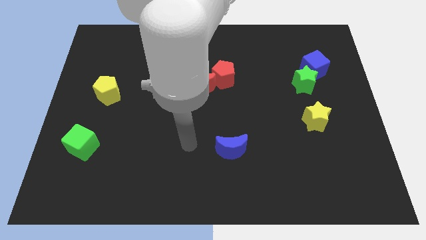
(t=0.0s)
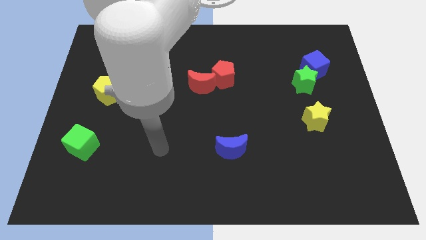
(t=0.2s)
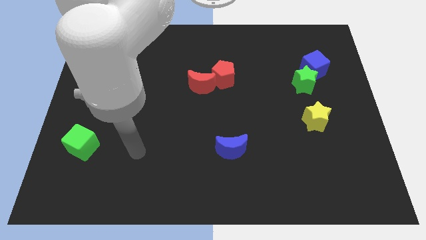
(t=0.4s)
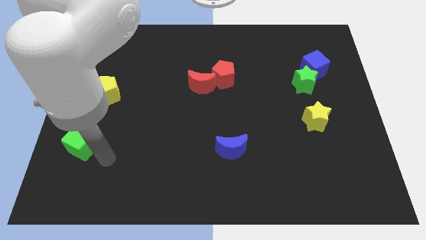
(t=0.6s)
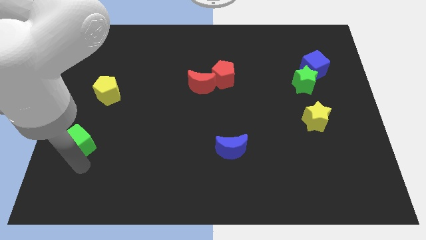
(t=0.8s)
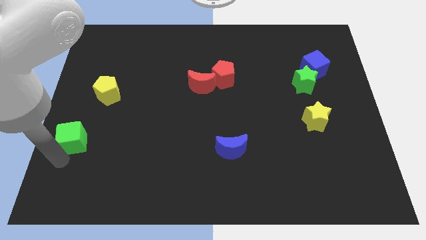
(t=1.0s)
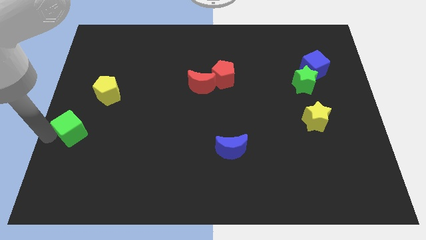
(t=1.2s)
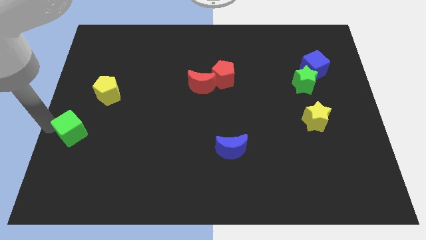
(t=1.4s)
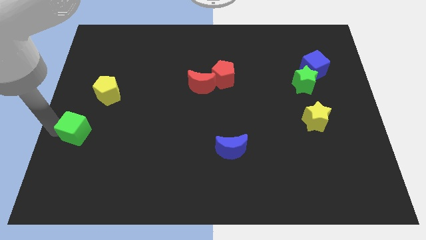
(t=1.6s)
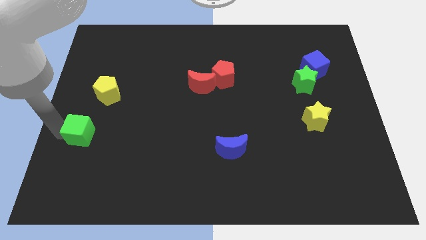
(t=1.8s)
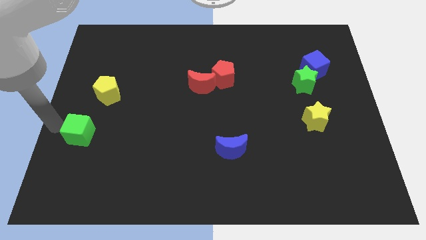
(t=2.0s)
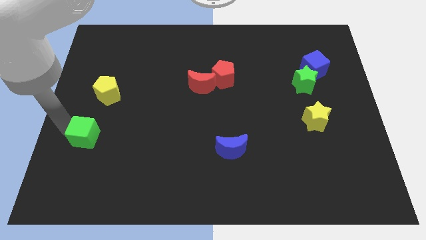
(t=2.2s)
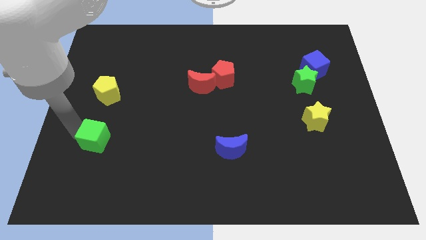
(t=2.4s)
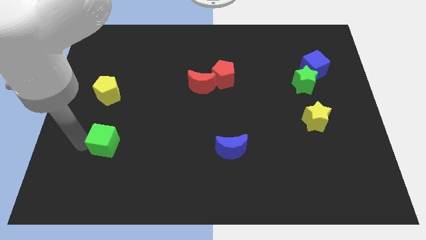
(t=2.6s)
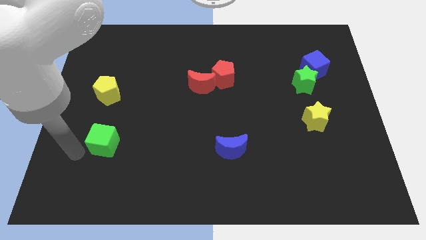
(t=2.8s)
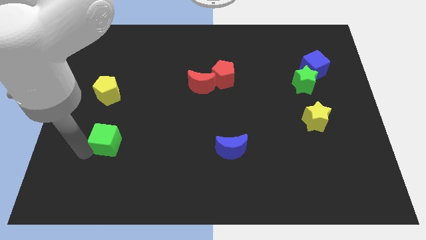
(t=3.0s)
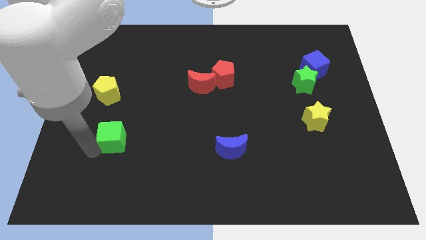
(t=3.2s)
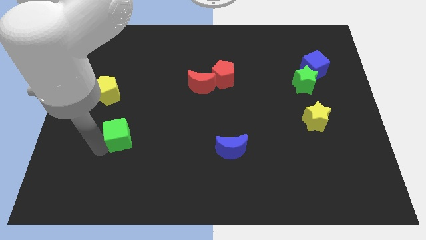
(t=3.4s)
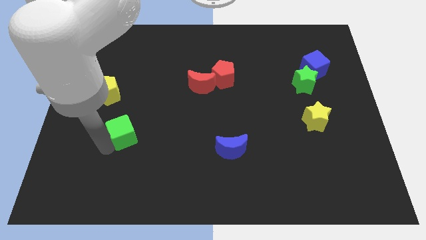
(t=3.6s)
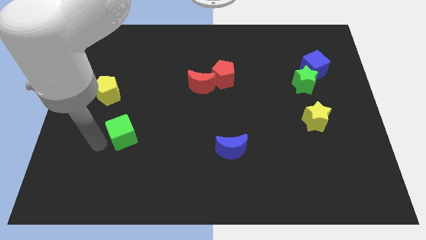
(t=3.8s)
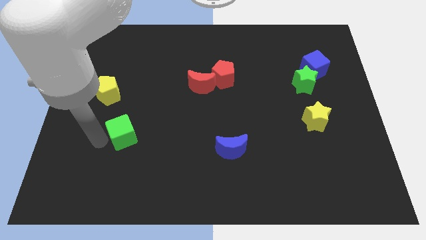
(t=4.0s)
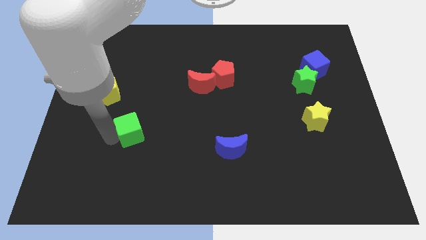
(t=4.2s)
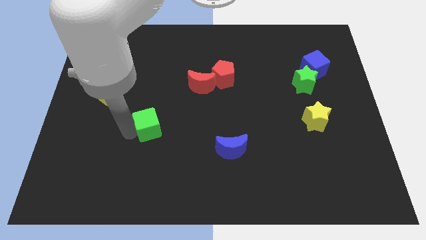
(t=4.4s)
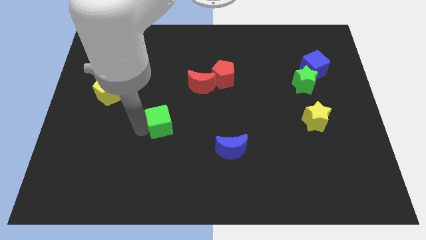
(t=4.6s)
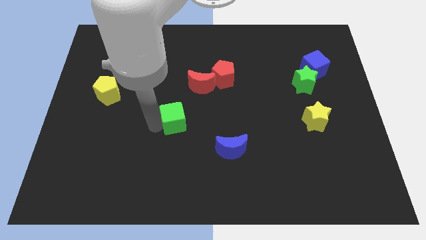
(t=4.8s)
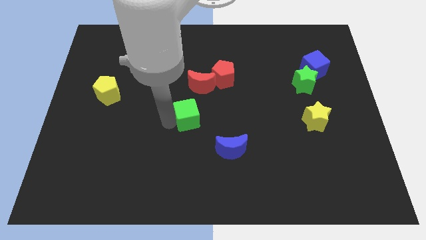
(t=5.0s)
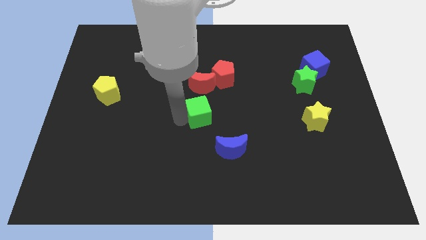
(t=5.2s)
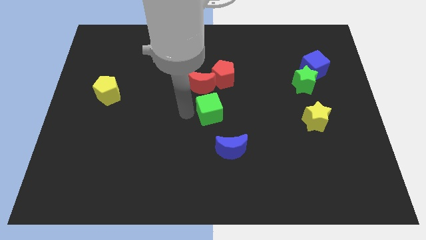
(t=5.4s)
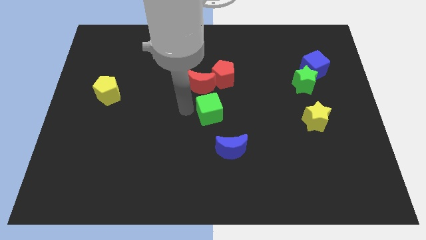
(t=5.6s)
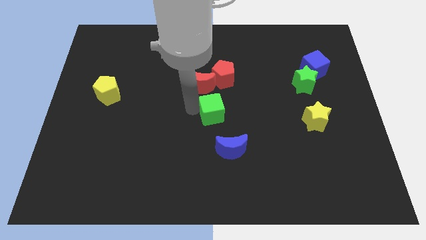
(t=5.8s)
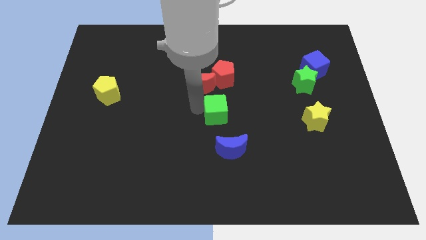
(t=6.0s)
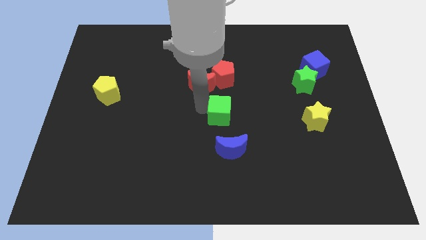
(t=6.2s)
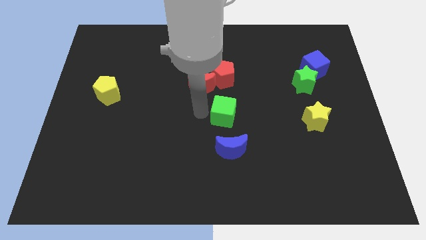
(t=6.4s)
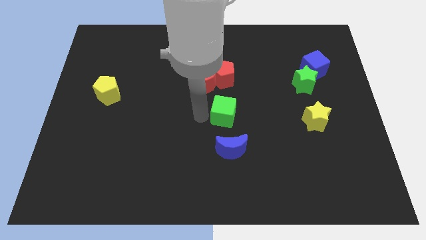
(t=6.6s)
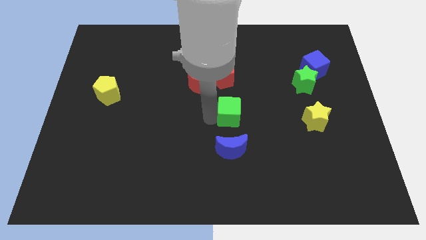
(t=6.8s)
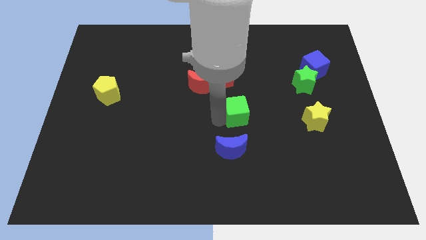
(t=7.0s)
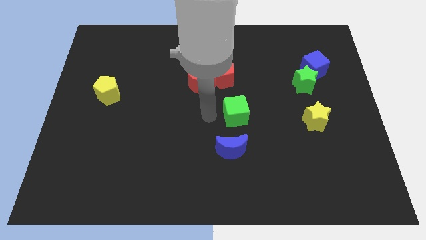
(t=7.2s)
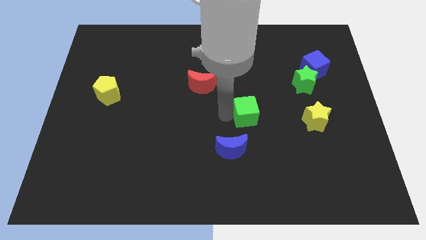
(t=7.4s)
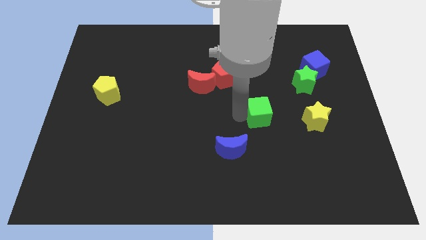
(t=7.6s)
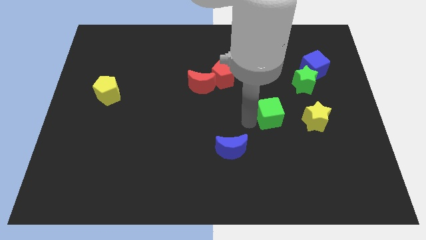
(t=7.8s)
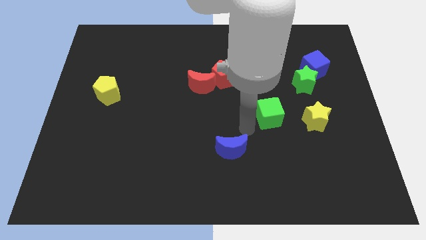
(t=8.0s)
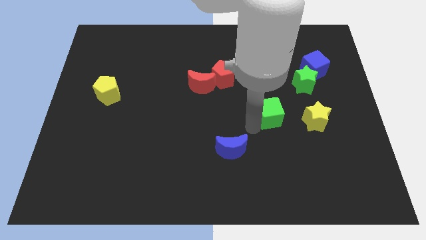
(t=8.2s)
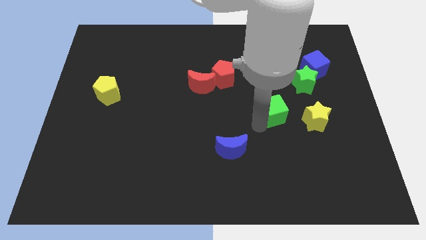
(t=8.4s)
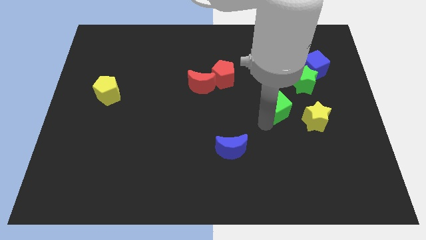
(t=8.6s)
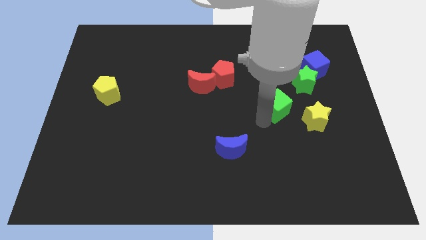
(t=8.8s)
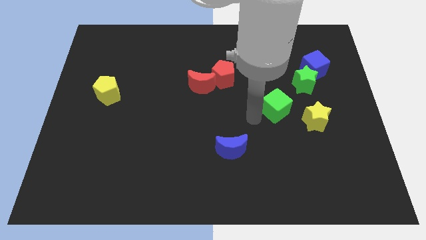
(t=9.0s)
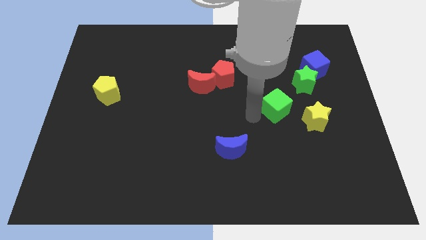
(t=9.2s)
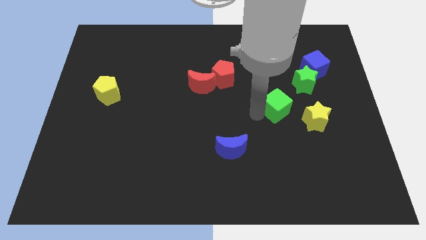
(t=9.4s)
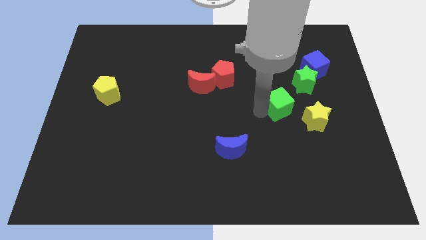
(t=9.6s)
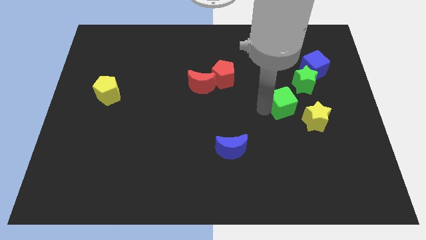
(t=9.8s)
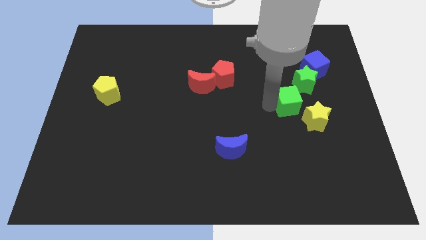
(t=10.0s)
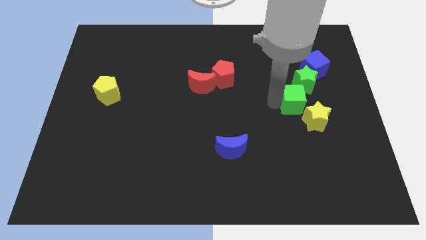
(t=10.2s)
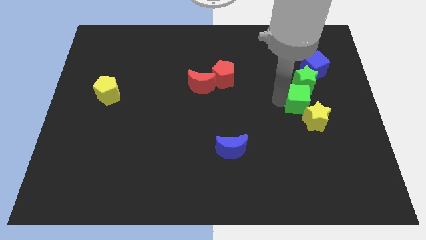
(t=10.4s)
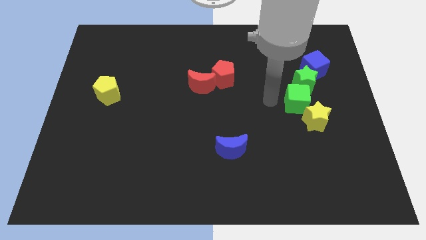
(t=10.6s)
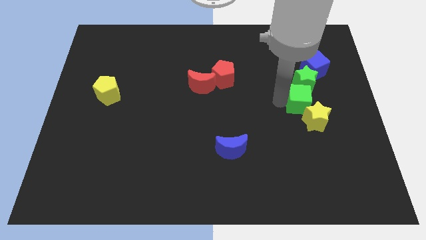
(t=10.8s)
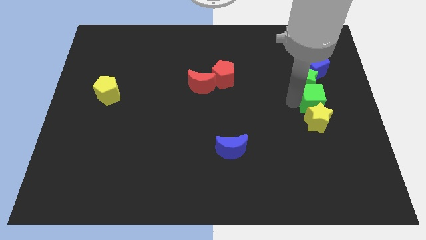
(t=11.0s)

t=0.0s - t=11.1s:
push the green cube diagonally up and to the right of the yellow star

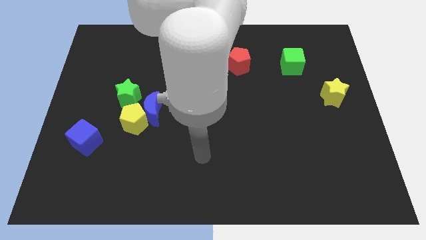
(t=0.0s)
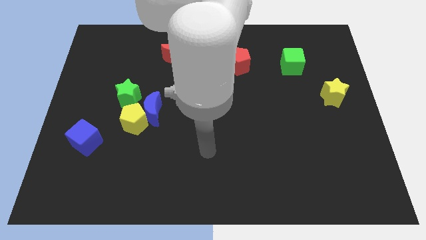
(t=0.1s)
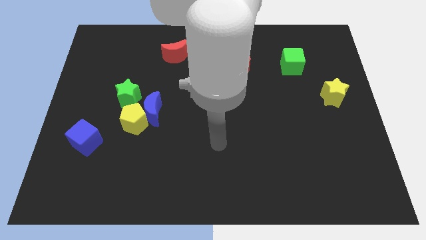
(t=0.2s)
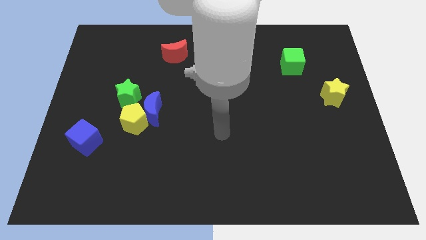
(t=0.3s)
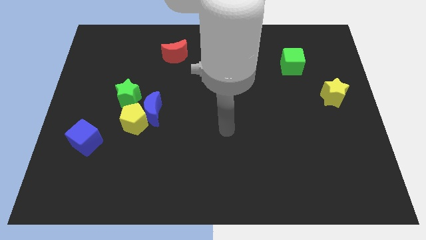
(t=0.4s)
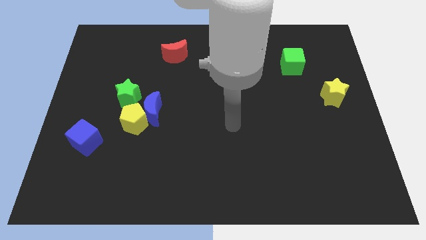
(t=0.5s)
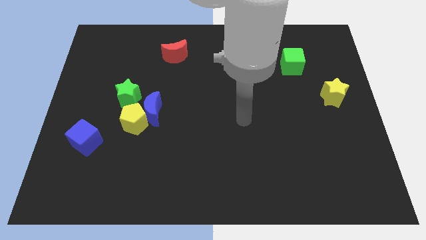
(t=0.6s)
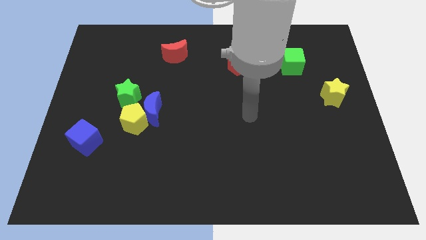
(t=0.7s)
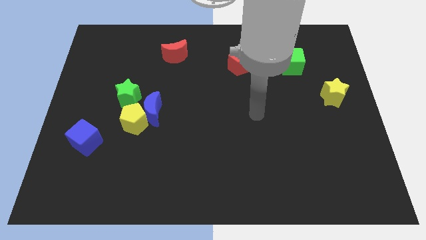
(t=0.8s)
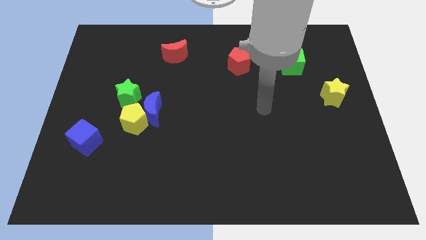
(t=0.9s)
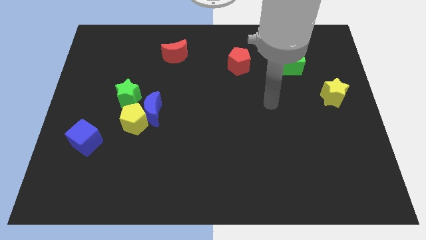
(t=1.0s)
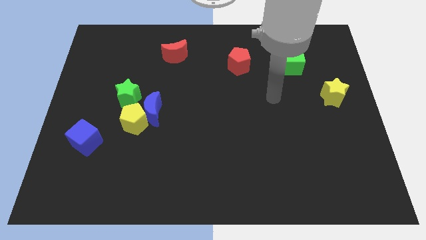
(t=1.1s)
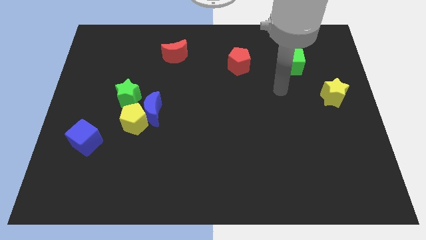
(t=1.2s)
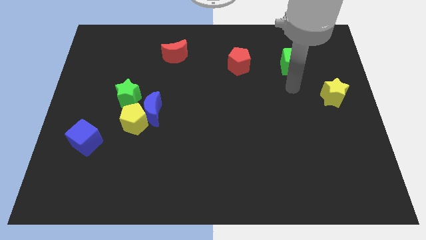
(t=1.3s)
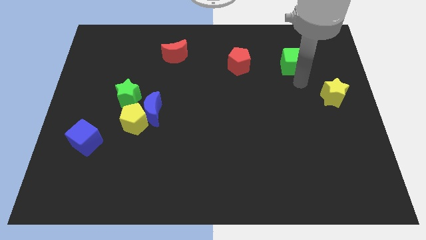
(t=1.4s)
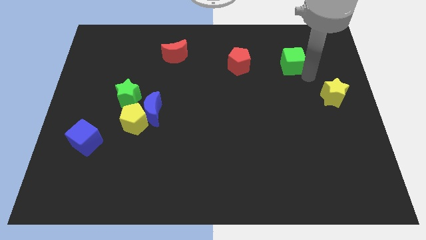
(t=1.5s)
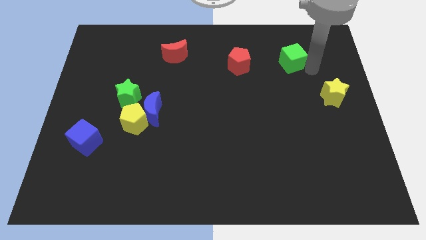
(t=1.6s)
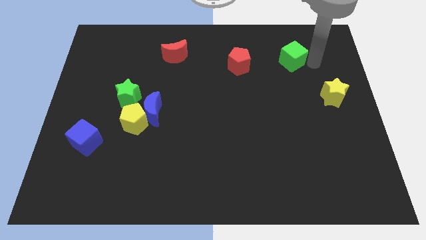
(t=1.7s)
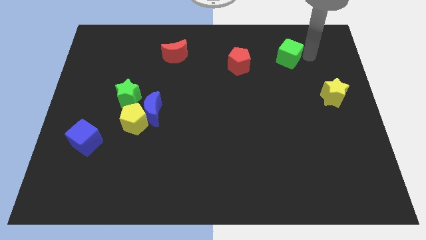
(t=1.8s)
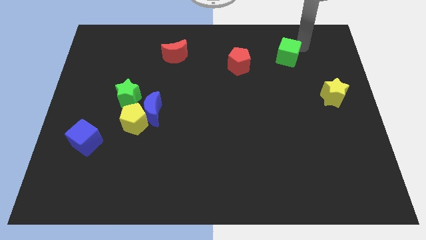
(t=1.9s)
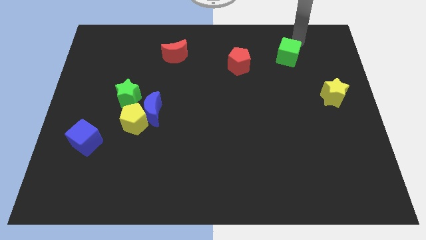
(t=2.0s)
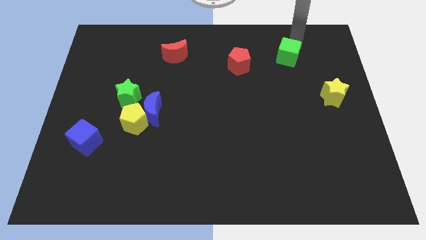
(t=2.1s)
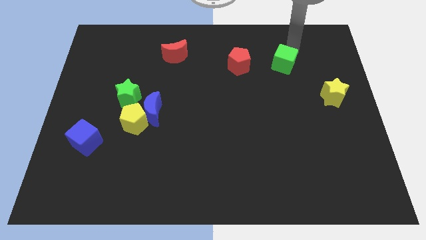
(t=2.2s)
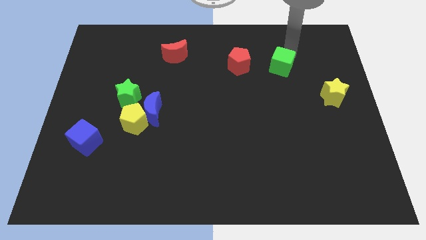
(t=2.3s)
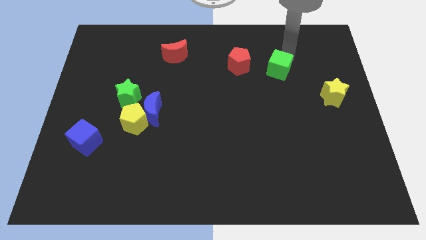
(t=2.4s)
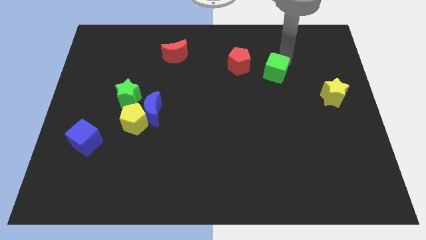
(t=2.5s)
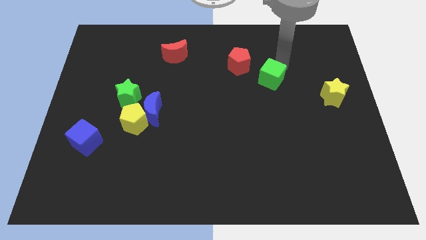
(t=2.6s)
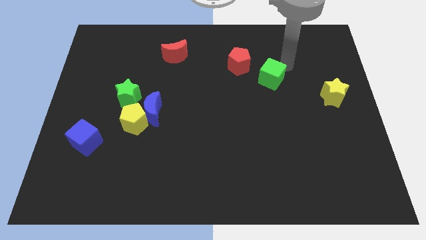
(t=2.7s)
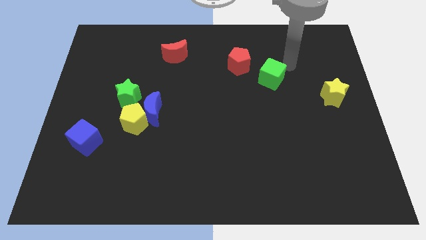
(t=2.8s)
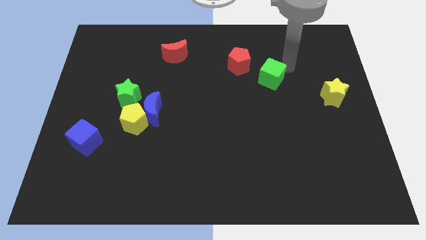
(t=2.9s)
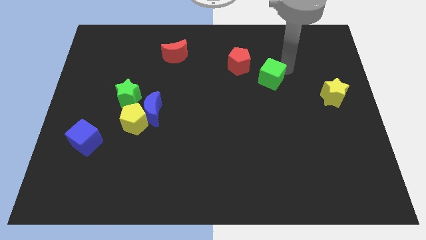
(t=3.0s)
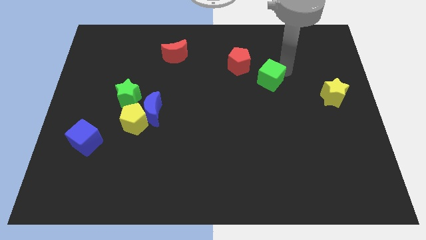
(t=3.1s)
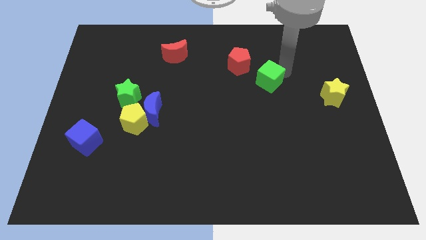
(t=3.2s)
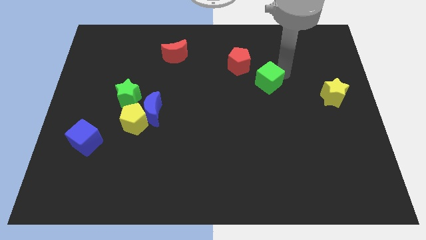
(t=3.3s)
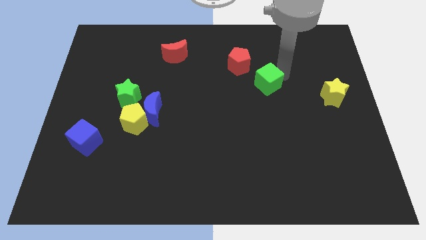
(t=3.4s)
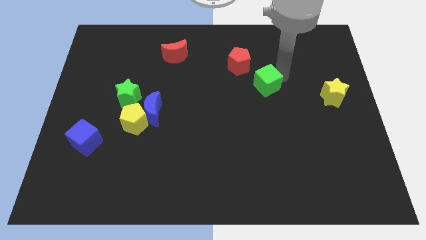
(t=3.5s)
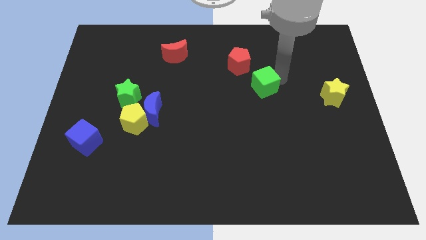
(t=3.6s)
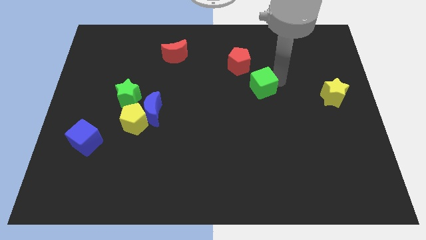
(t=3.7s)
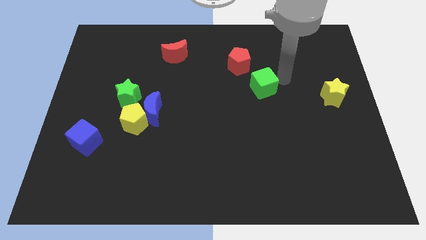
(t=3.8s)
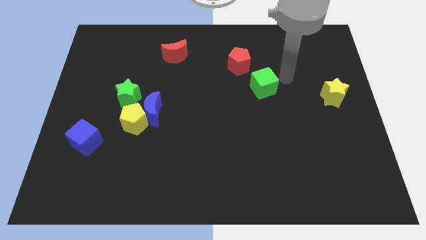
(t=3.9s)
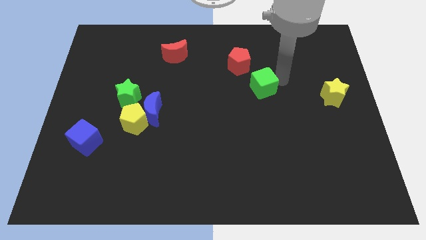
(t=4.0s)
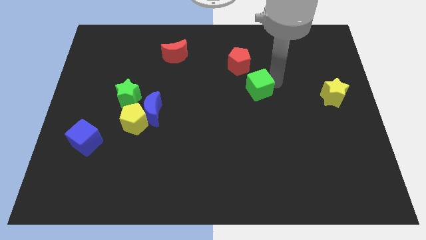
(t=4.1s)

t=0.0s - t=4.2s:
push the green cube below the red pentagon
